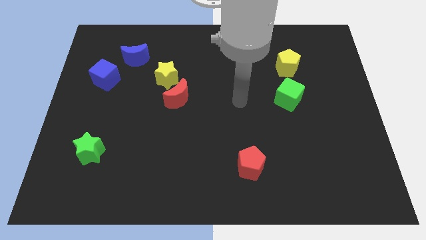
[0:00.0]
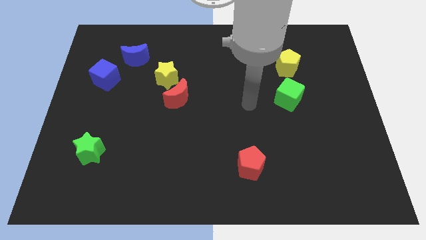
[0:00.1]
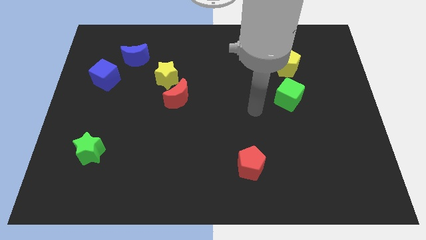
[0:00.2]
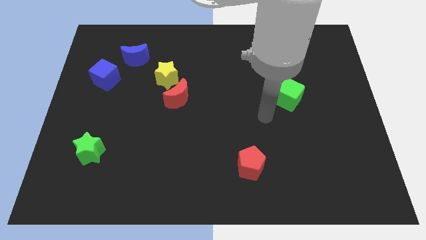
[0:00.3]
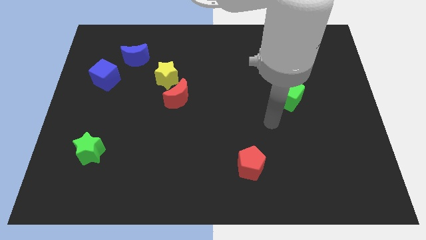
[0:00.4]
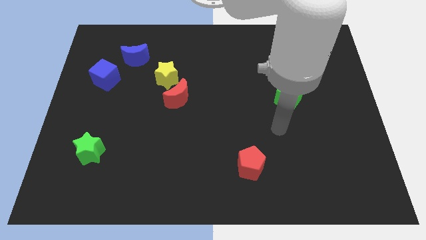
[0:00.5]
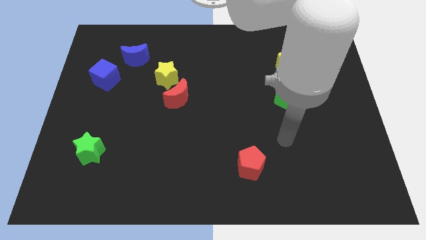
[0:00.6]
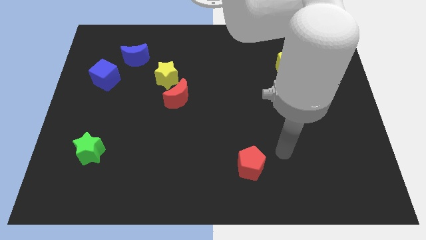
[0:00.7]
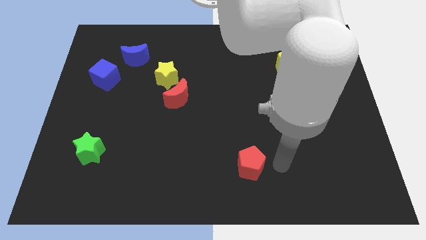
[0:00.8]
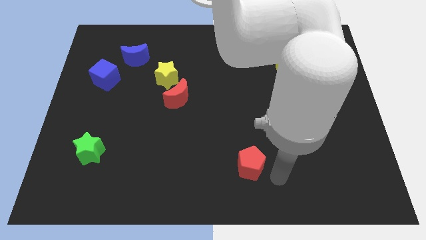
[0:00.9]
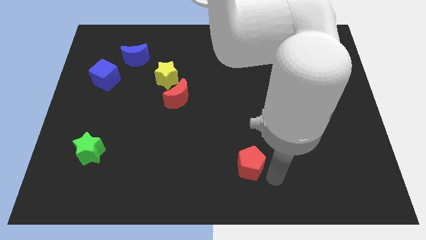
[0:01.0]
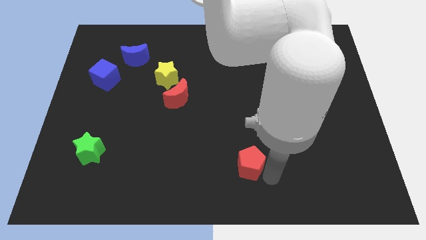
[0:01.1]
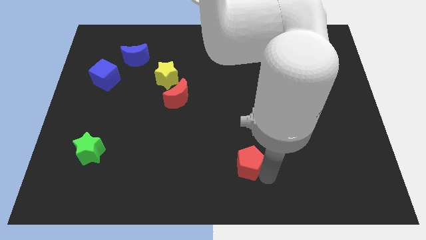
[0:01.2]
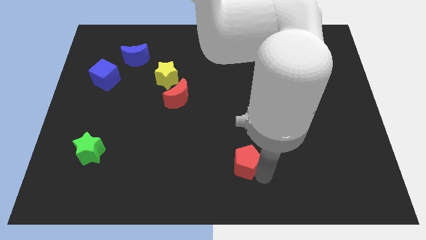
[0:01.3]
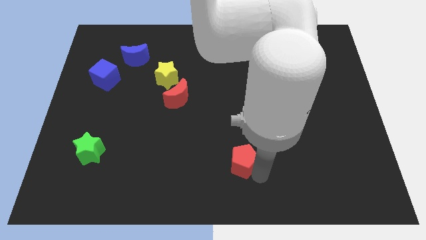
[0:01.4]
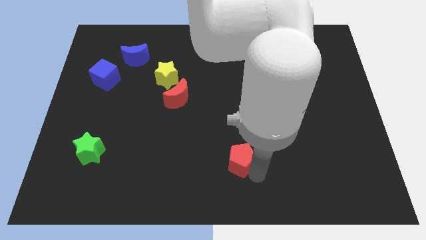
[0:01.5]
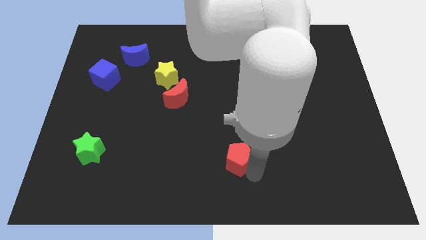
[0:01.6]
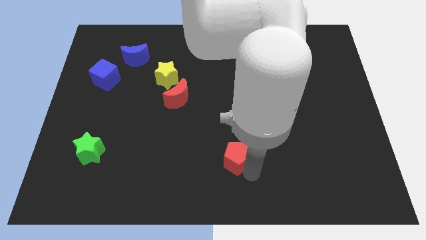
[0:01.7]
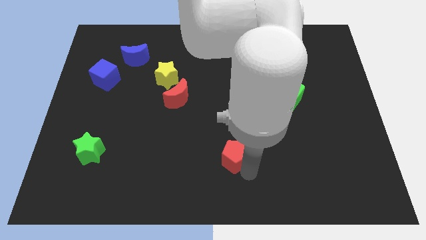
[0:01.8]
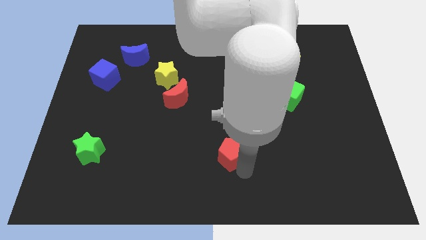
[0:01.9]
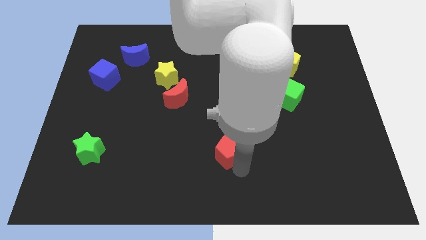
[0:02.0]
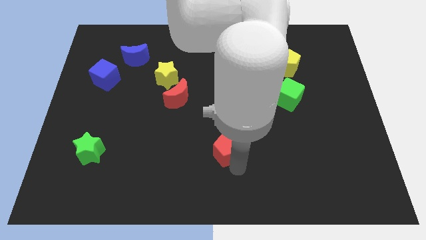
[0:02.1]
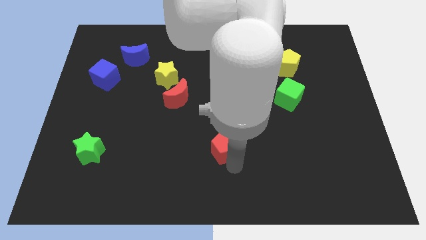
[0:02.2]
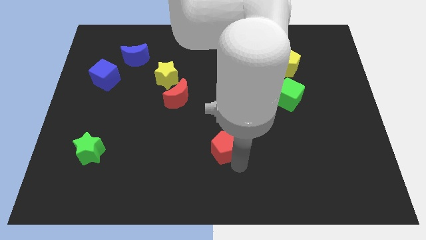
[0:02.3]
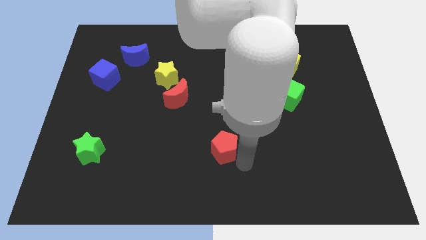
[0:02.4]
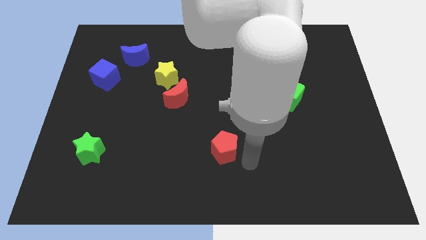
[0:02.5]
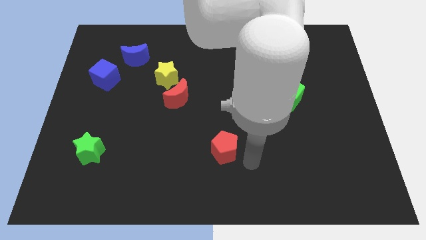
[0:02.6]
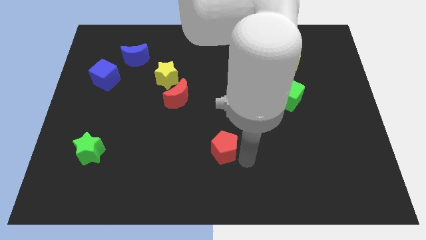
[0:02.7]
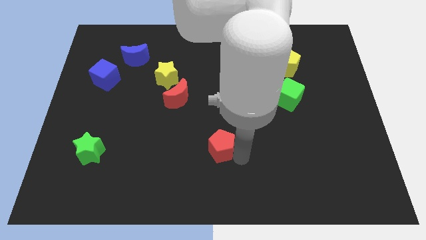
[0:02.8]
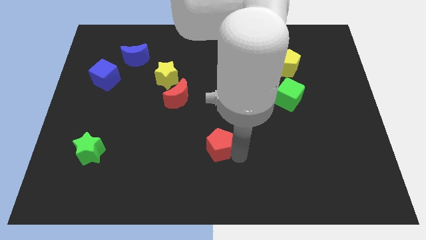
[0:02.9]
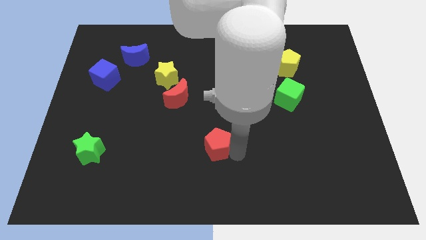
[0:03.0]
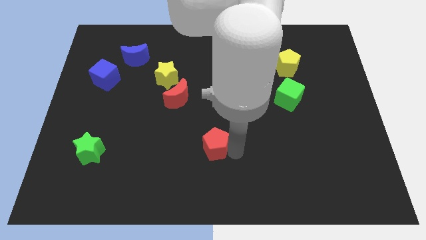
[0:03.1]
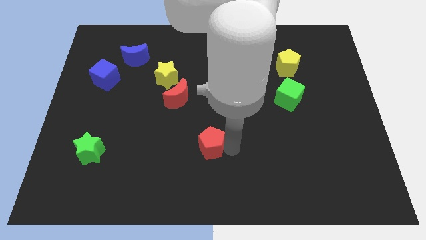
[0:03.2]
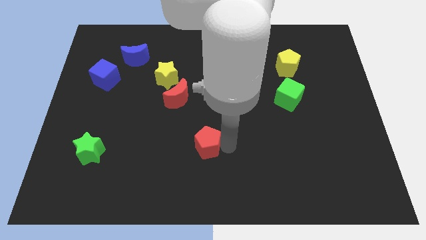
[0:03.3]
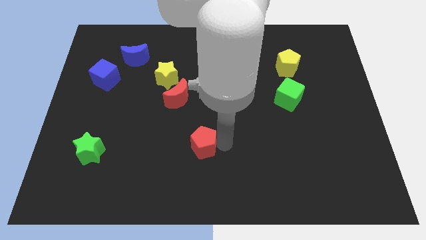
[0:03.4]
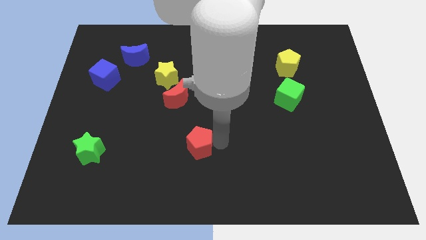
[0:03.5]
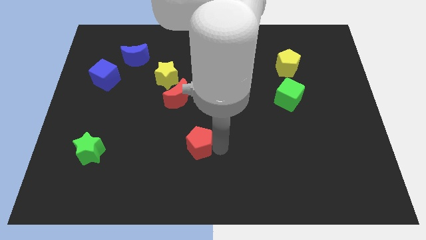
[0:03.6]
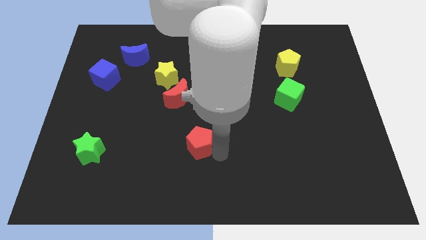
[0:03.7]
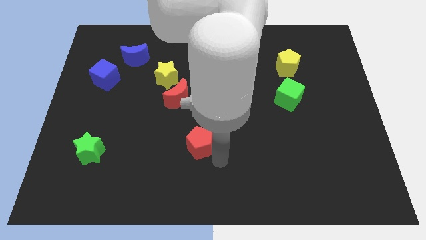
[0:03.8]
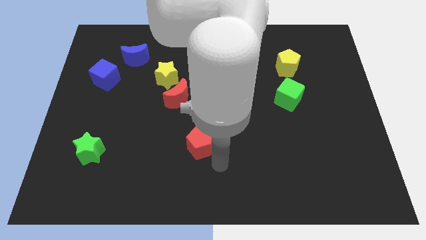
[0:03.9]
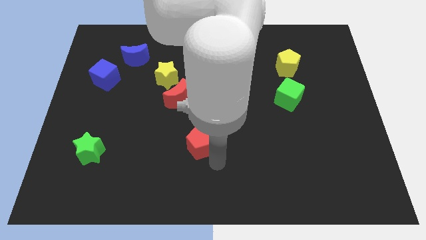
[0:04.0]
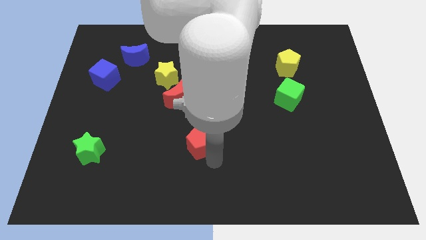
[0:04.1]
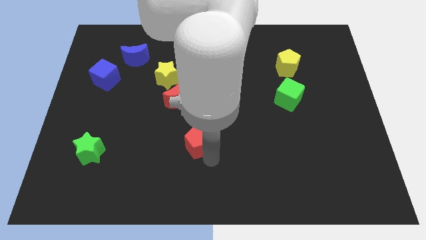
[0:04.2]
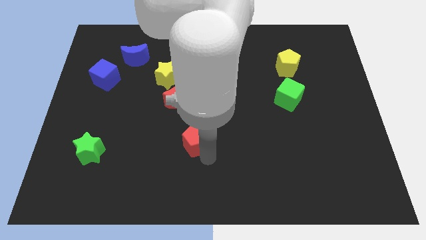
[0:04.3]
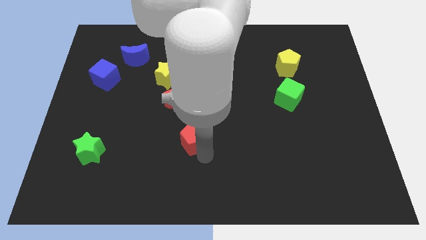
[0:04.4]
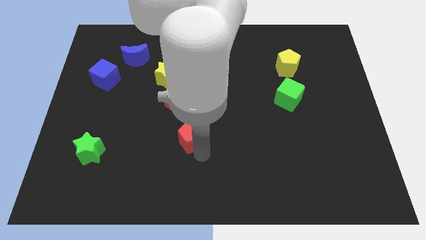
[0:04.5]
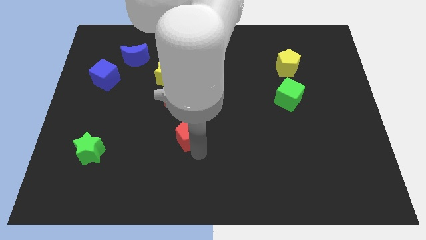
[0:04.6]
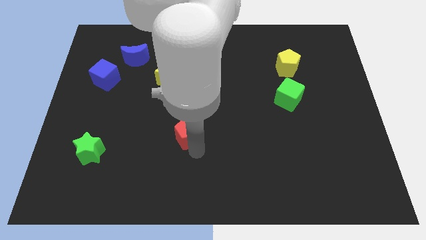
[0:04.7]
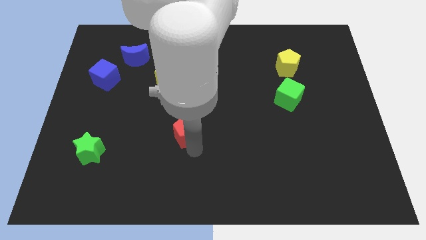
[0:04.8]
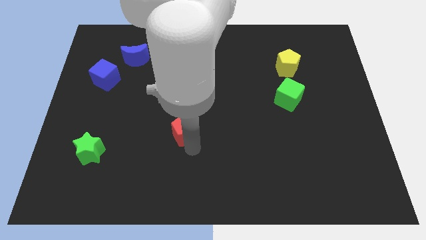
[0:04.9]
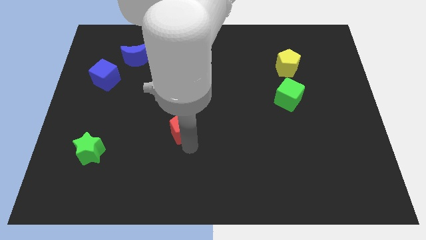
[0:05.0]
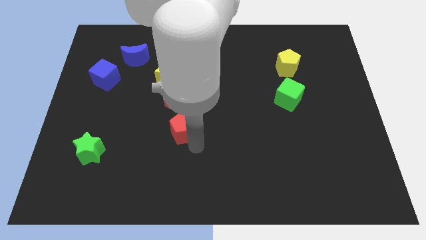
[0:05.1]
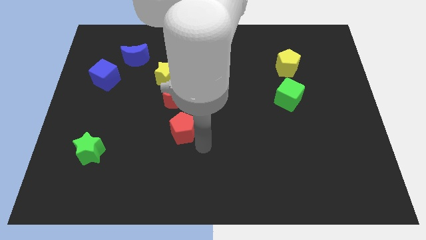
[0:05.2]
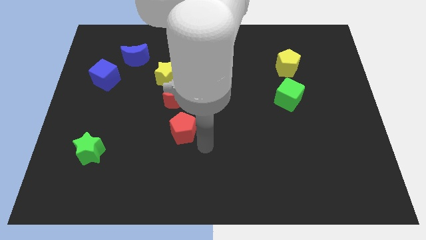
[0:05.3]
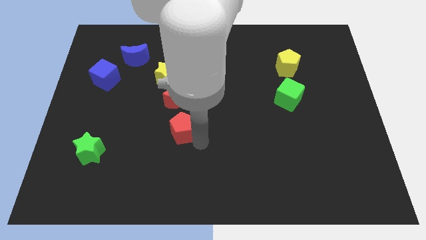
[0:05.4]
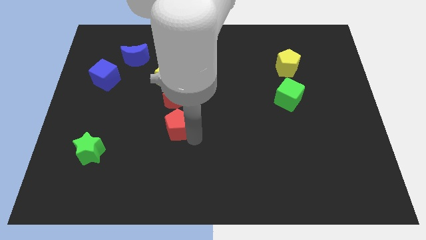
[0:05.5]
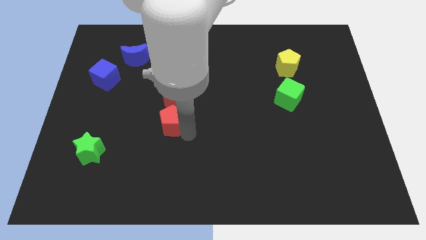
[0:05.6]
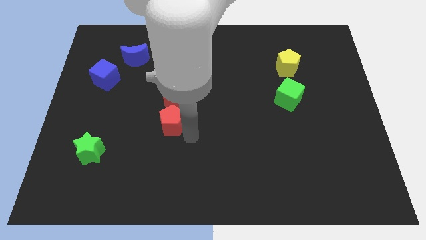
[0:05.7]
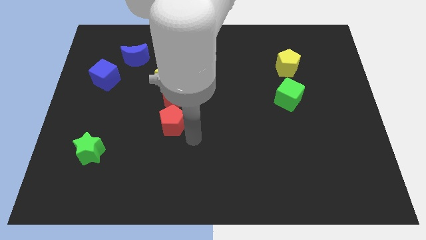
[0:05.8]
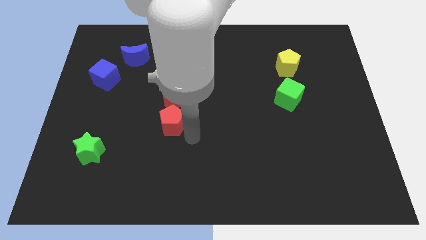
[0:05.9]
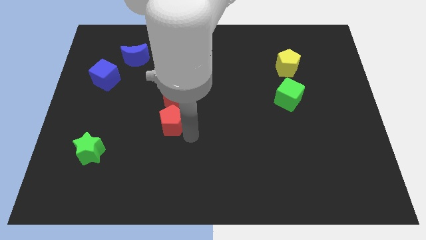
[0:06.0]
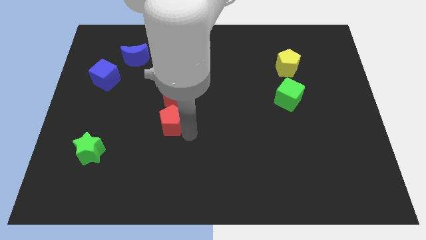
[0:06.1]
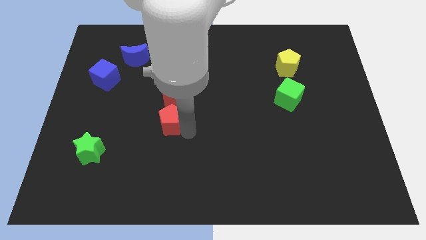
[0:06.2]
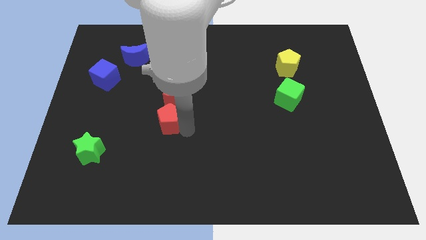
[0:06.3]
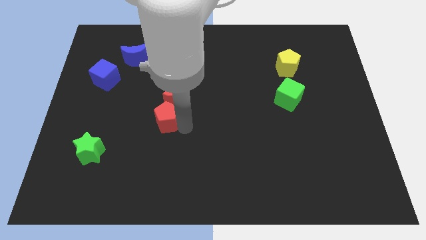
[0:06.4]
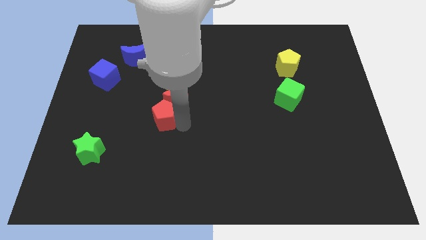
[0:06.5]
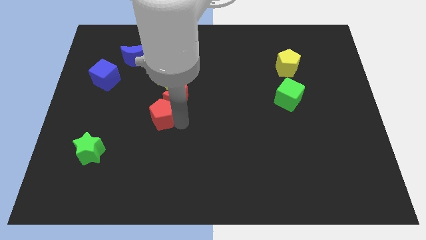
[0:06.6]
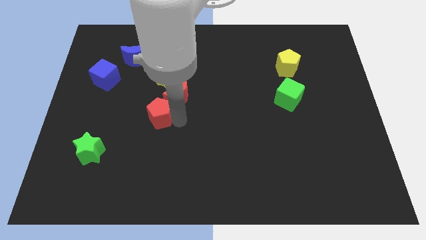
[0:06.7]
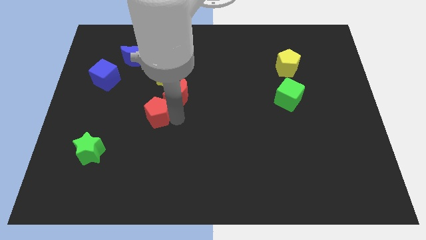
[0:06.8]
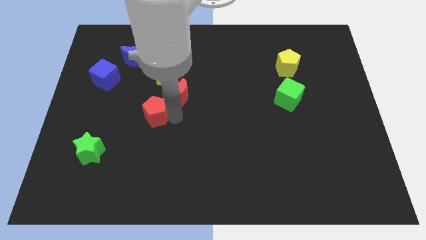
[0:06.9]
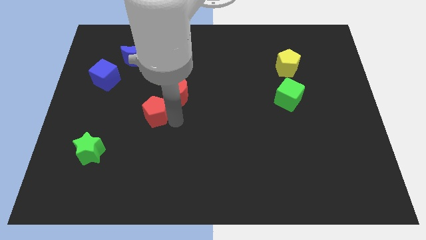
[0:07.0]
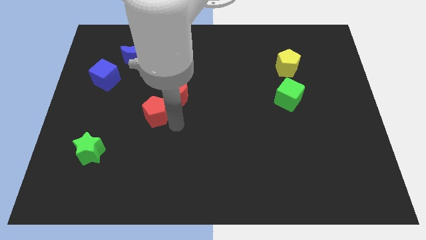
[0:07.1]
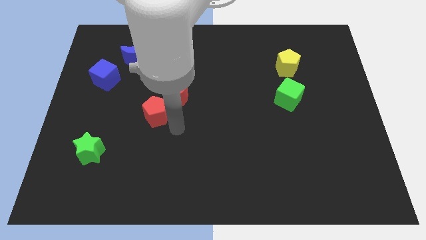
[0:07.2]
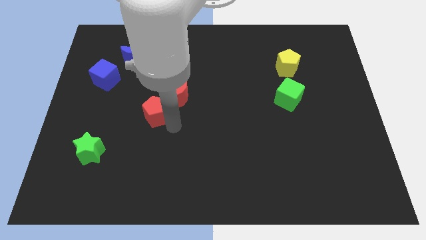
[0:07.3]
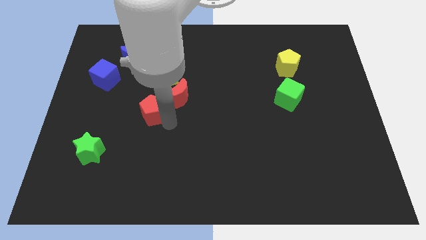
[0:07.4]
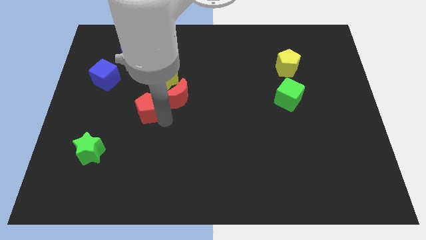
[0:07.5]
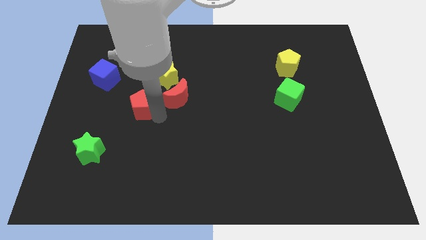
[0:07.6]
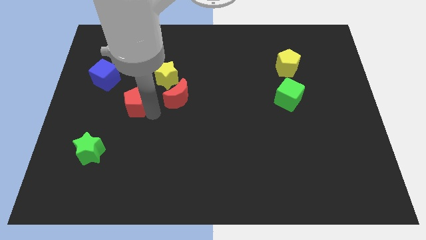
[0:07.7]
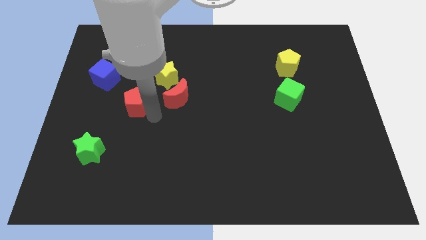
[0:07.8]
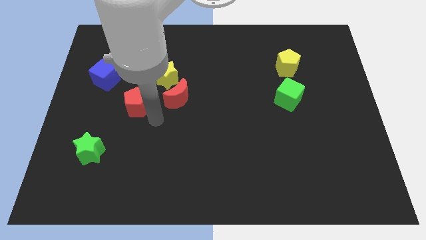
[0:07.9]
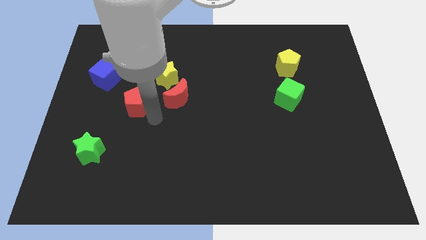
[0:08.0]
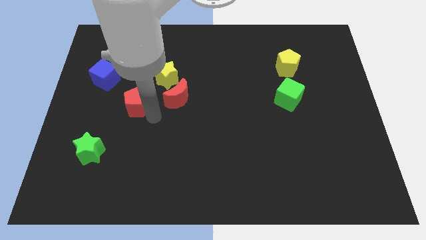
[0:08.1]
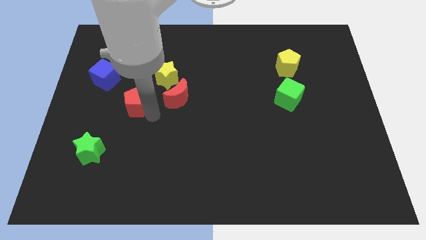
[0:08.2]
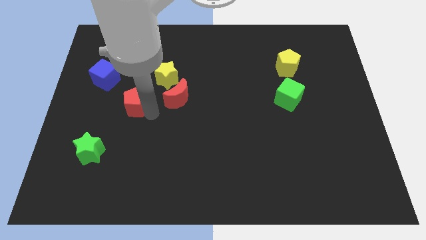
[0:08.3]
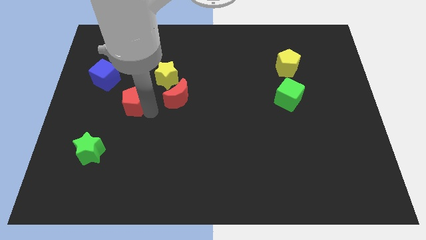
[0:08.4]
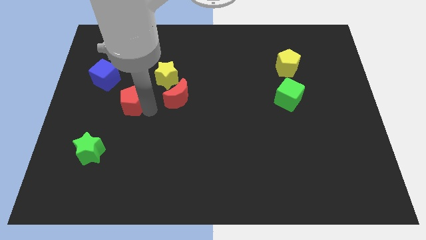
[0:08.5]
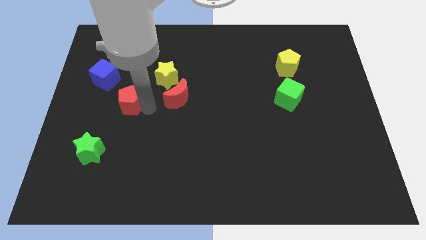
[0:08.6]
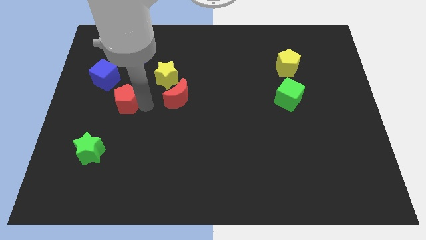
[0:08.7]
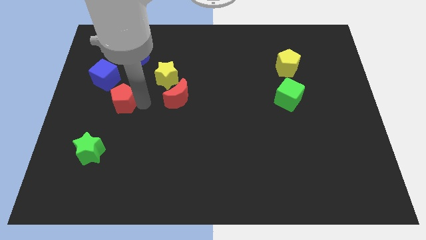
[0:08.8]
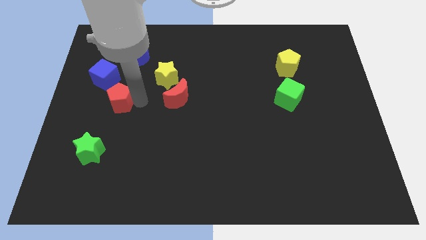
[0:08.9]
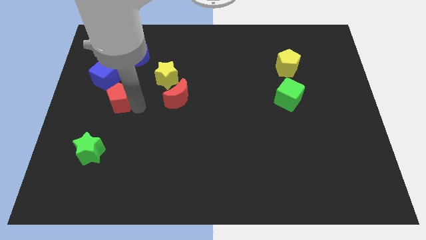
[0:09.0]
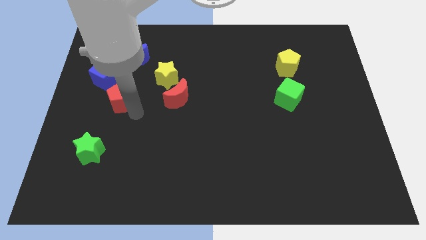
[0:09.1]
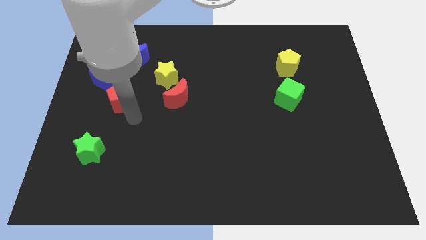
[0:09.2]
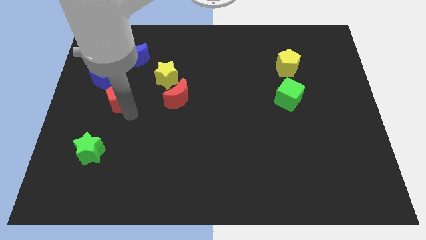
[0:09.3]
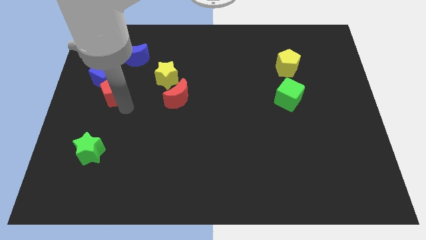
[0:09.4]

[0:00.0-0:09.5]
put the red pentagon next to the blue cube
